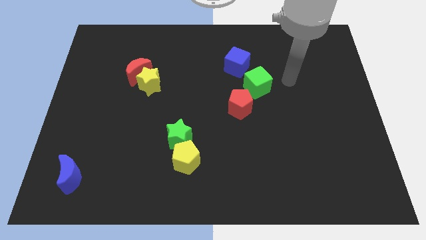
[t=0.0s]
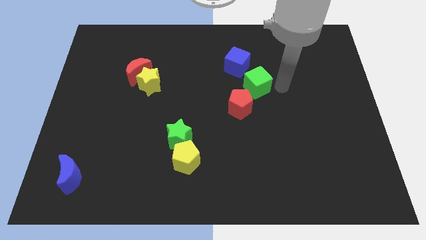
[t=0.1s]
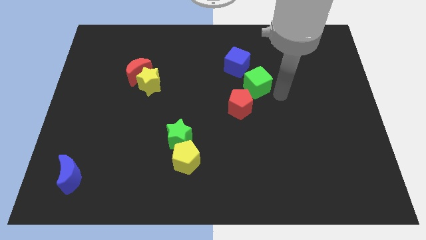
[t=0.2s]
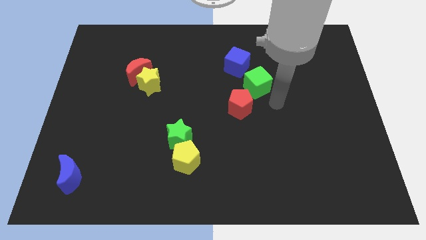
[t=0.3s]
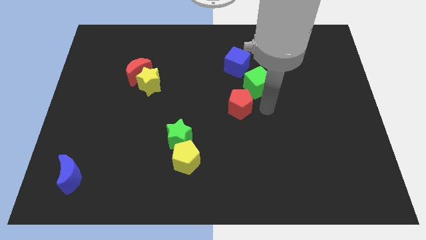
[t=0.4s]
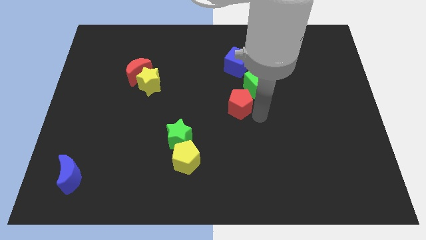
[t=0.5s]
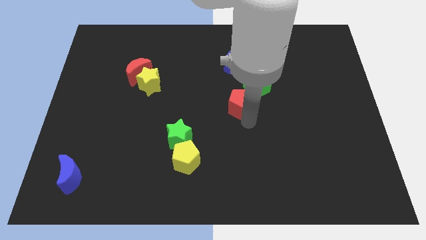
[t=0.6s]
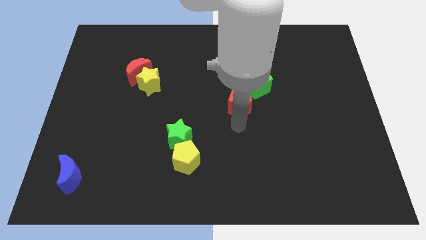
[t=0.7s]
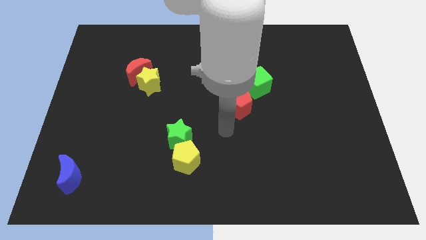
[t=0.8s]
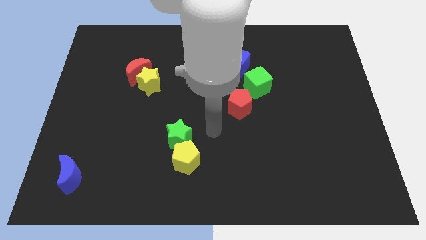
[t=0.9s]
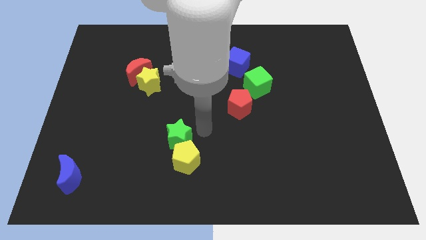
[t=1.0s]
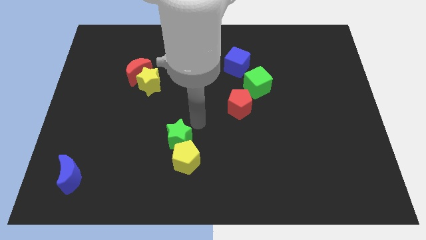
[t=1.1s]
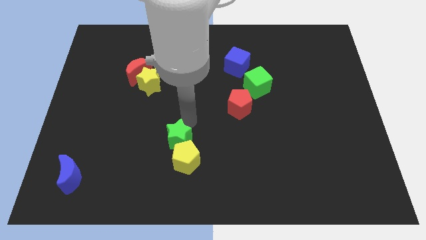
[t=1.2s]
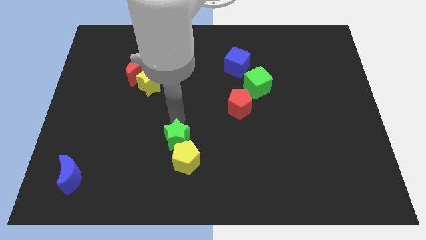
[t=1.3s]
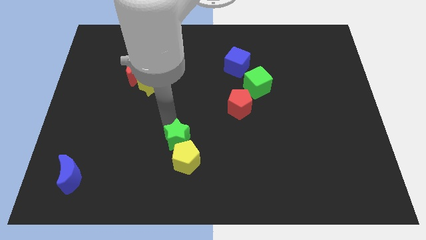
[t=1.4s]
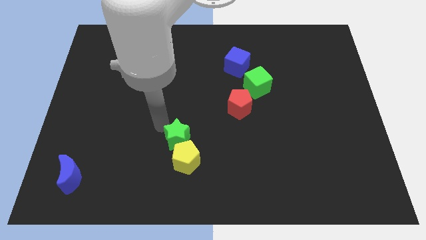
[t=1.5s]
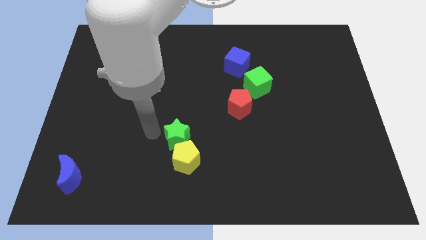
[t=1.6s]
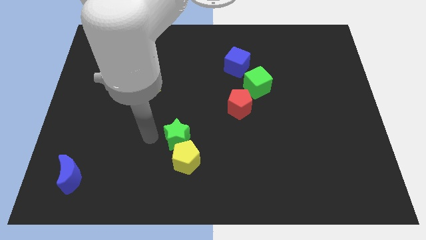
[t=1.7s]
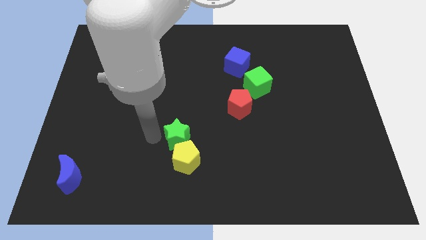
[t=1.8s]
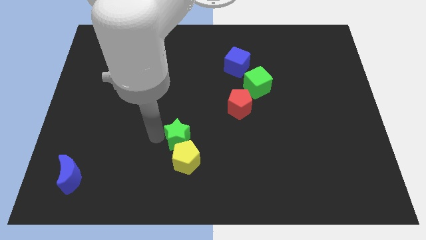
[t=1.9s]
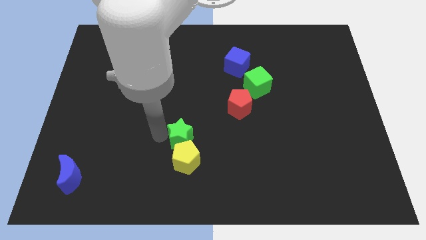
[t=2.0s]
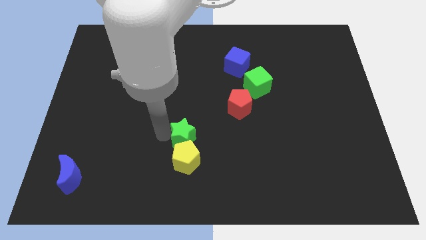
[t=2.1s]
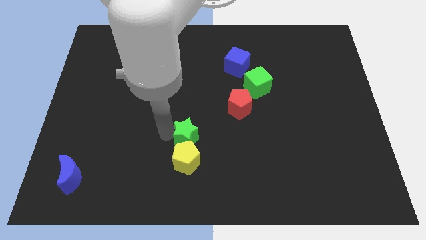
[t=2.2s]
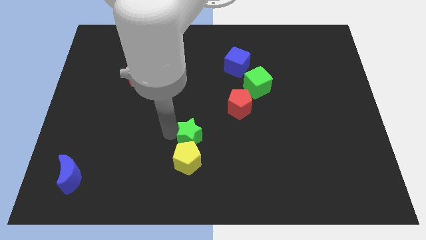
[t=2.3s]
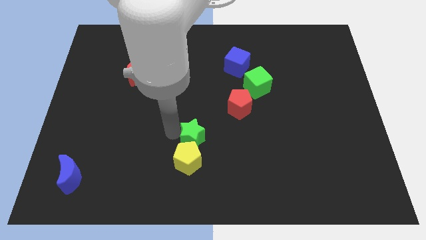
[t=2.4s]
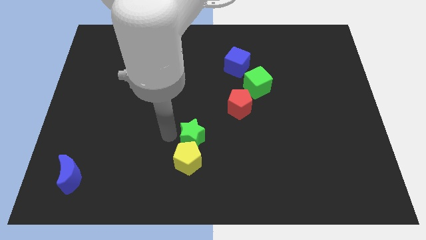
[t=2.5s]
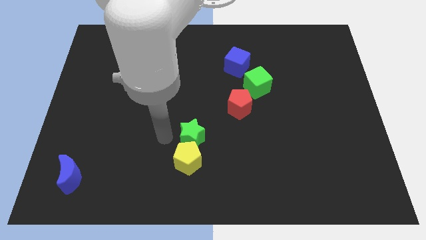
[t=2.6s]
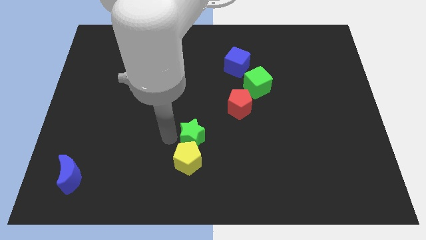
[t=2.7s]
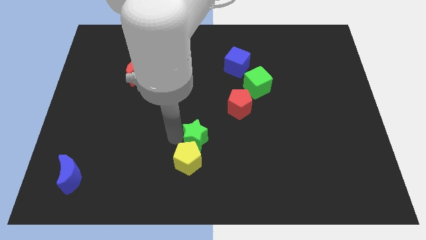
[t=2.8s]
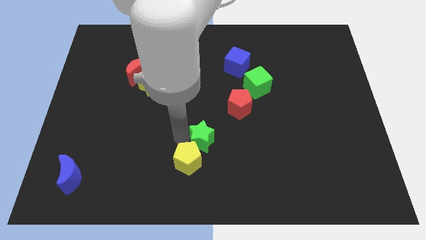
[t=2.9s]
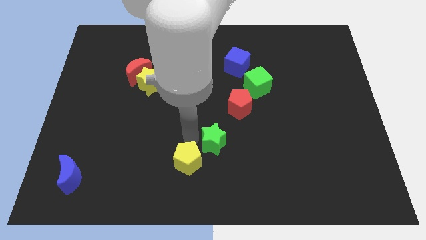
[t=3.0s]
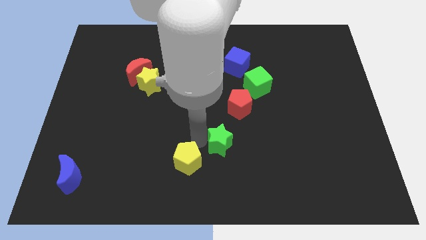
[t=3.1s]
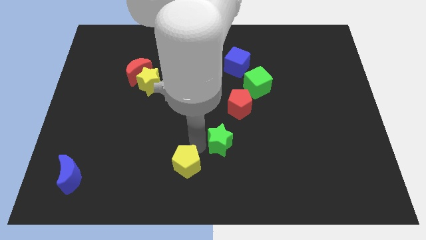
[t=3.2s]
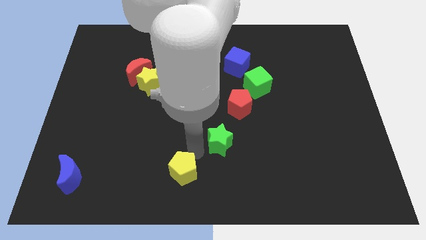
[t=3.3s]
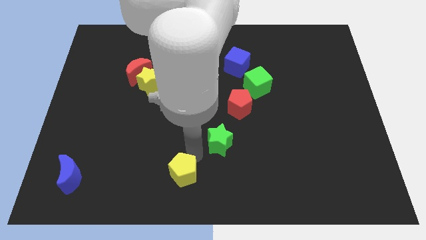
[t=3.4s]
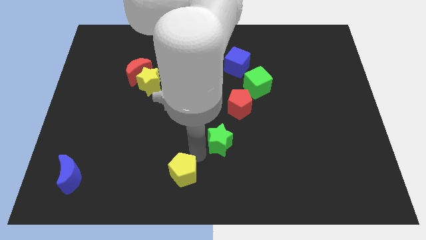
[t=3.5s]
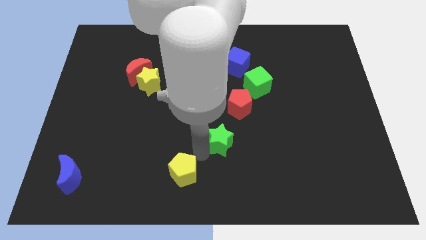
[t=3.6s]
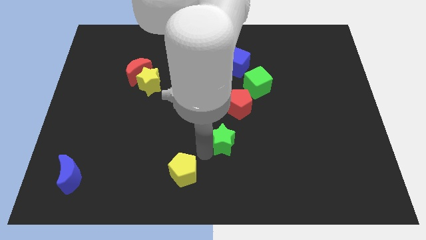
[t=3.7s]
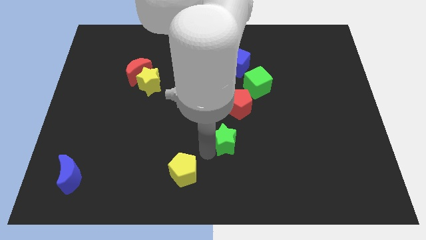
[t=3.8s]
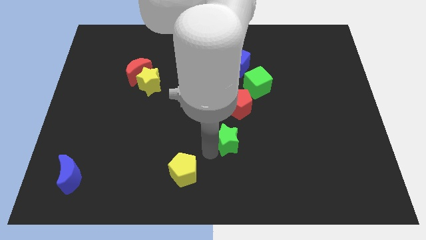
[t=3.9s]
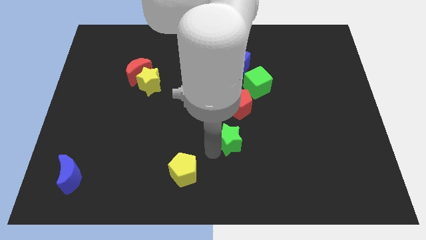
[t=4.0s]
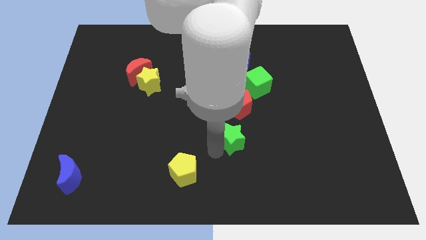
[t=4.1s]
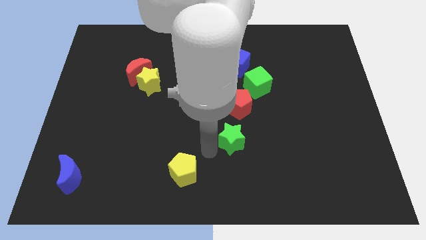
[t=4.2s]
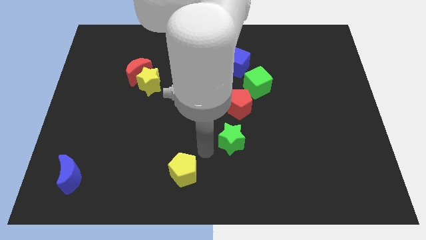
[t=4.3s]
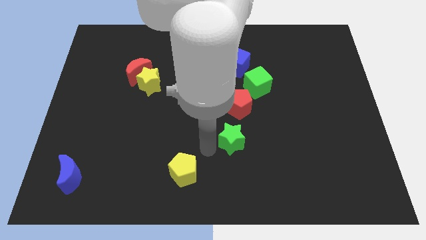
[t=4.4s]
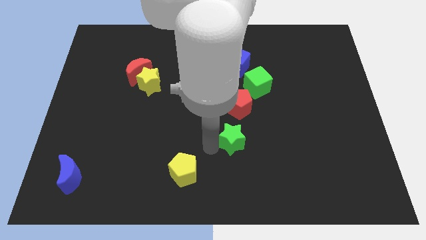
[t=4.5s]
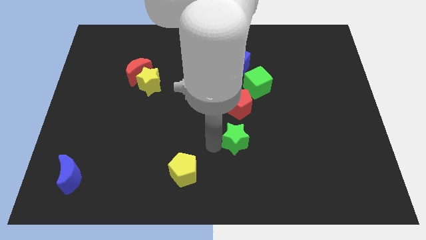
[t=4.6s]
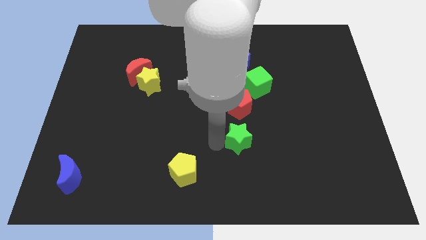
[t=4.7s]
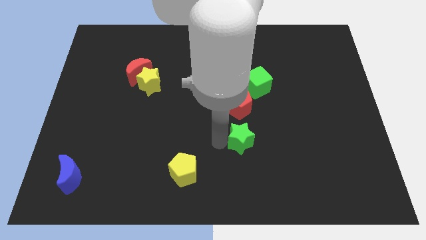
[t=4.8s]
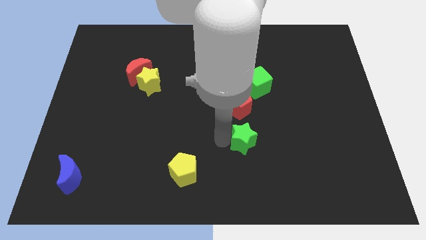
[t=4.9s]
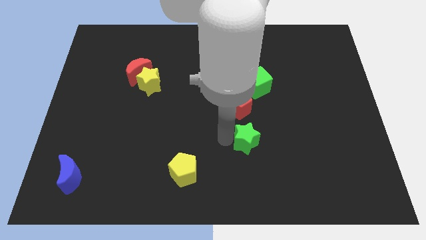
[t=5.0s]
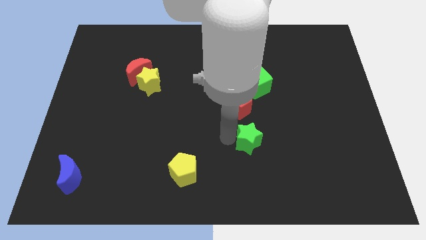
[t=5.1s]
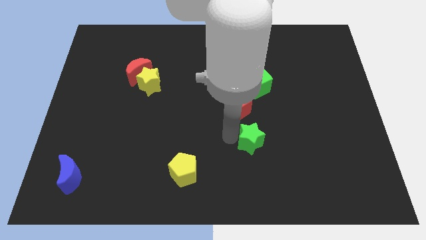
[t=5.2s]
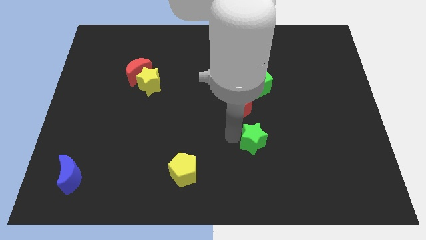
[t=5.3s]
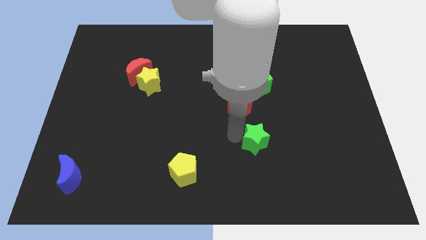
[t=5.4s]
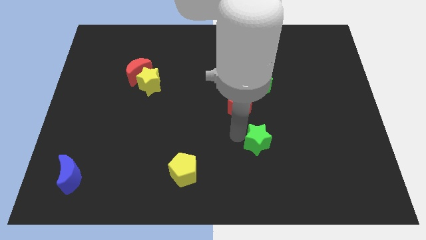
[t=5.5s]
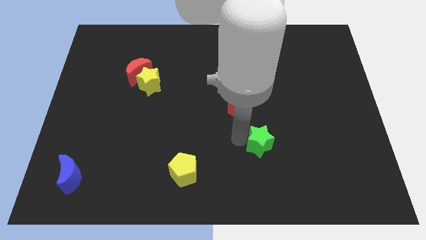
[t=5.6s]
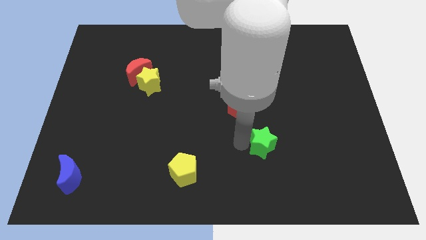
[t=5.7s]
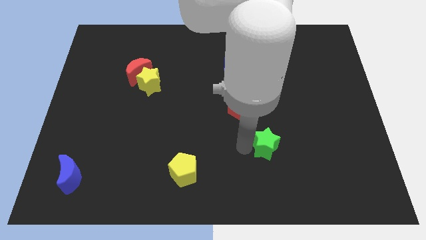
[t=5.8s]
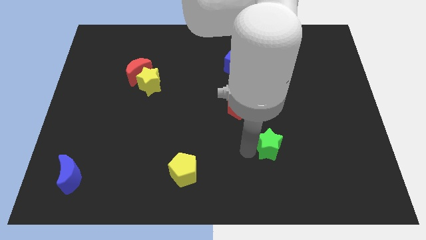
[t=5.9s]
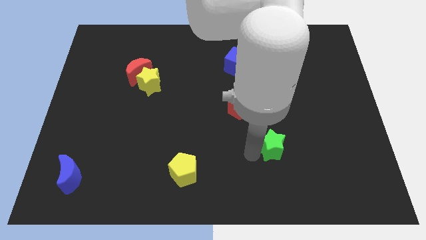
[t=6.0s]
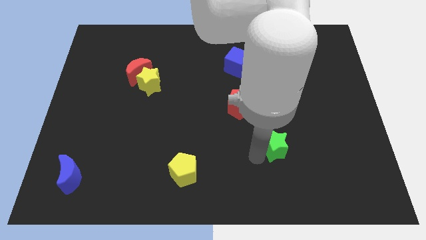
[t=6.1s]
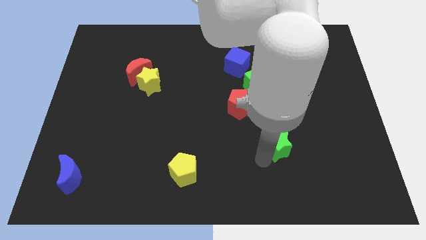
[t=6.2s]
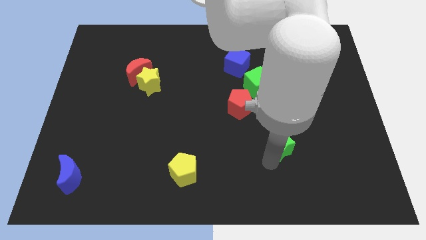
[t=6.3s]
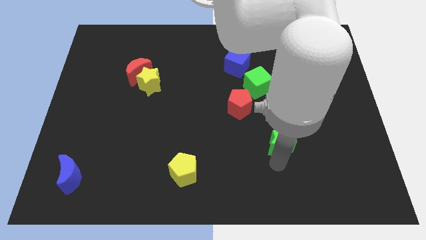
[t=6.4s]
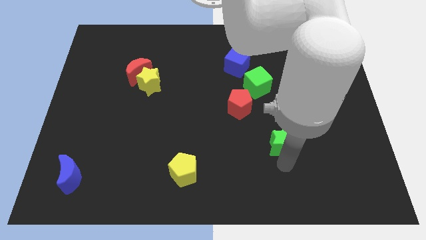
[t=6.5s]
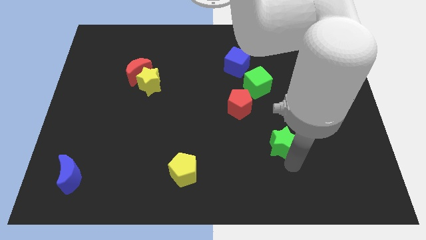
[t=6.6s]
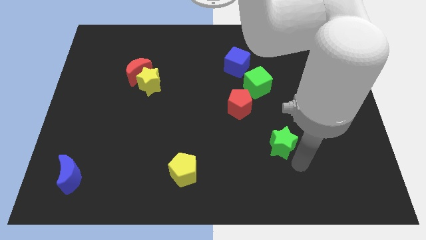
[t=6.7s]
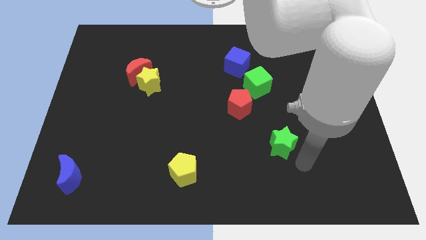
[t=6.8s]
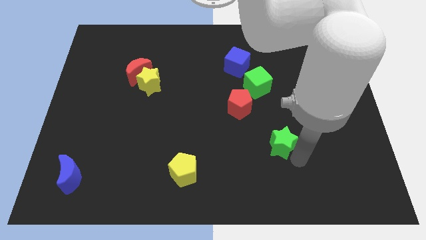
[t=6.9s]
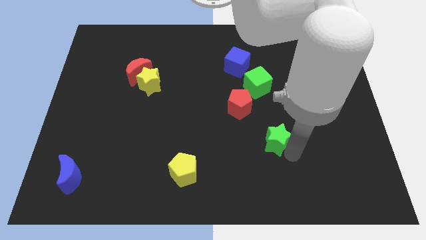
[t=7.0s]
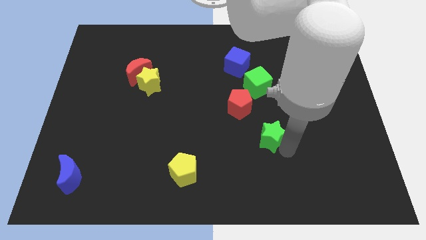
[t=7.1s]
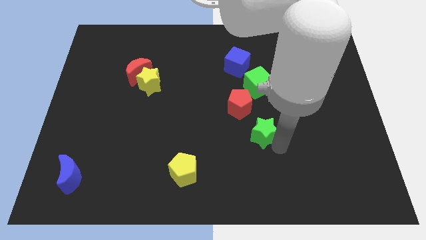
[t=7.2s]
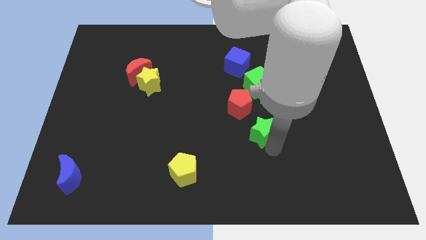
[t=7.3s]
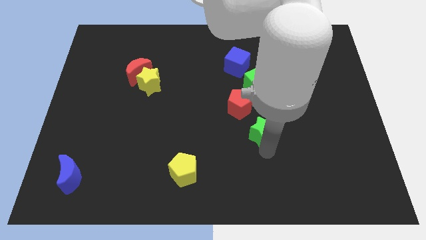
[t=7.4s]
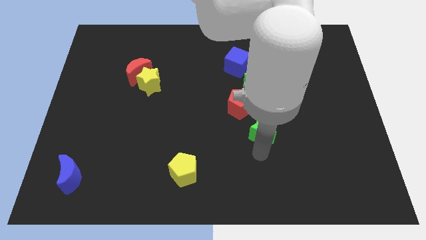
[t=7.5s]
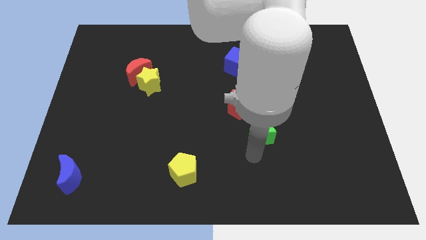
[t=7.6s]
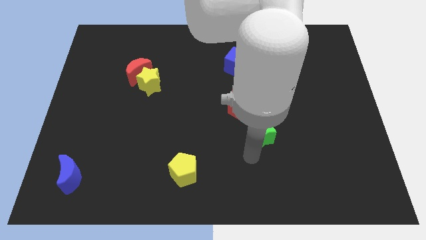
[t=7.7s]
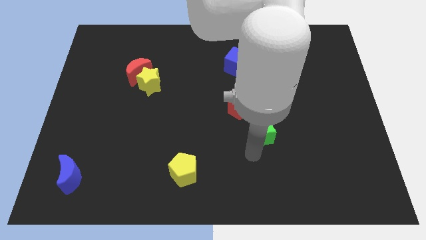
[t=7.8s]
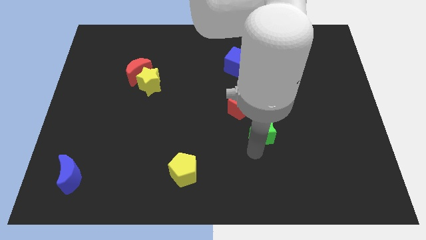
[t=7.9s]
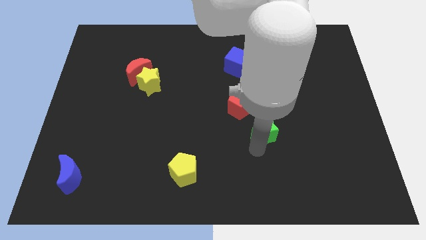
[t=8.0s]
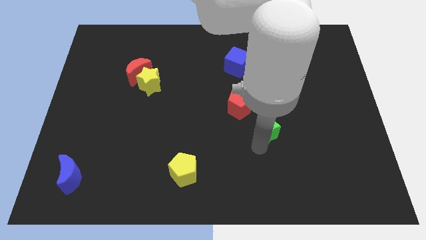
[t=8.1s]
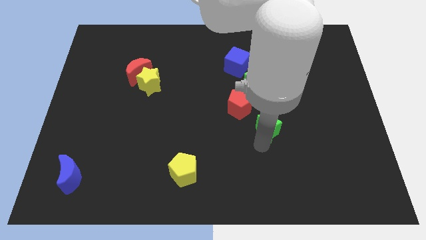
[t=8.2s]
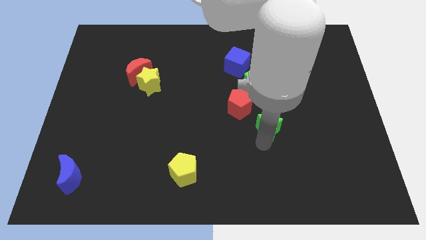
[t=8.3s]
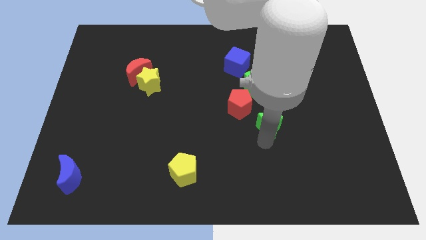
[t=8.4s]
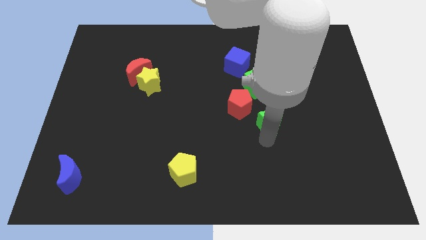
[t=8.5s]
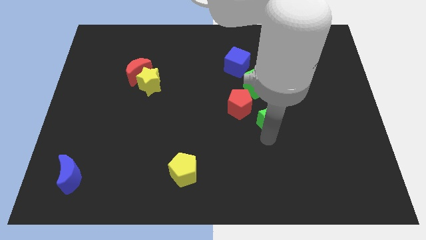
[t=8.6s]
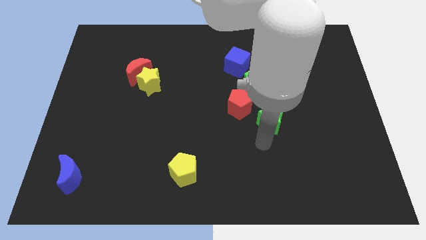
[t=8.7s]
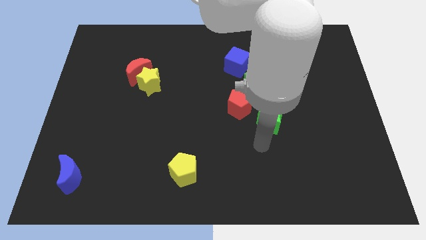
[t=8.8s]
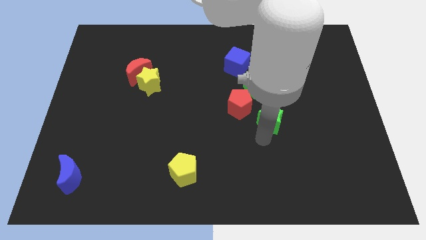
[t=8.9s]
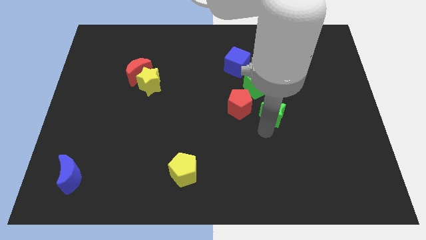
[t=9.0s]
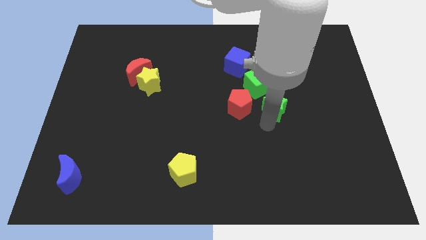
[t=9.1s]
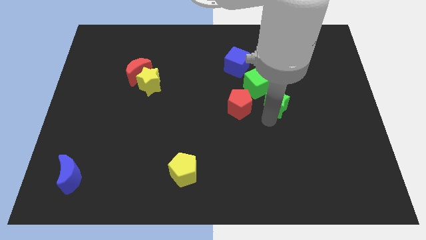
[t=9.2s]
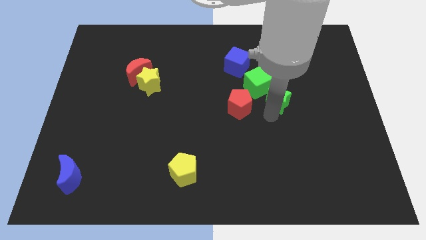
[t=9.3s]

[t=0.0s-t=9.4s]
slide the green star upwards and then to the right
